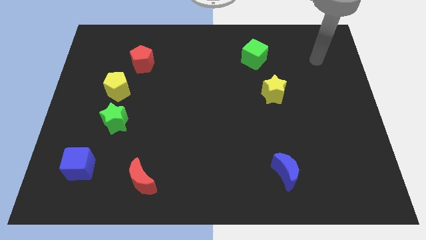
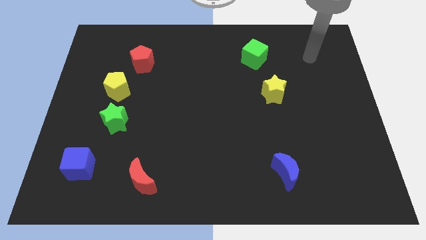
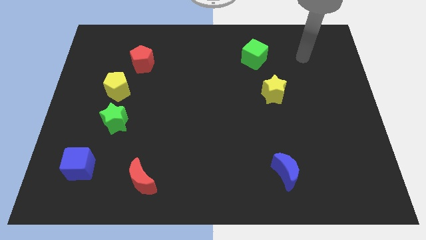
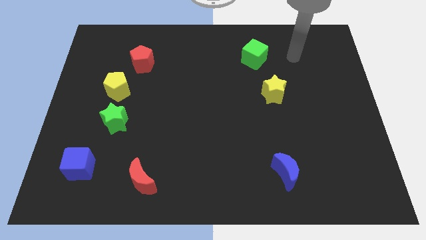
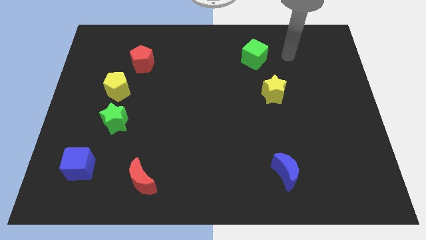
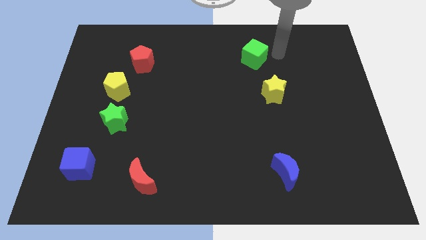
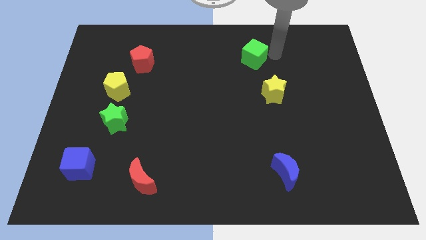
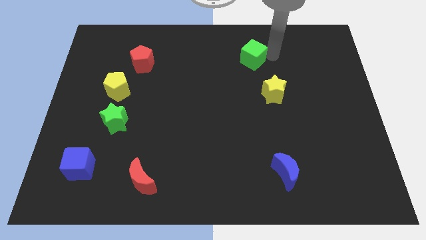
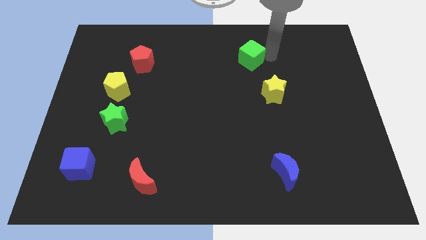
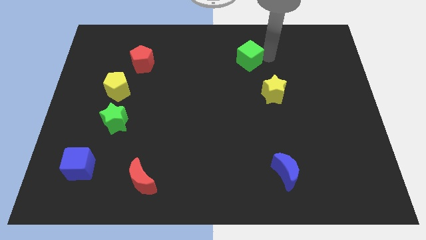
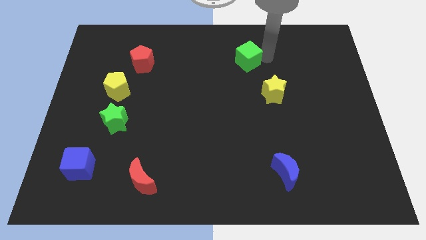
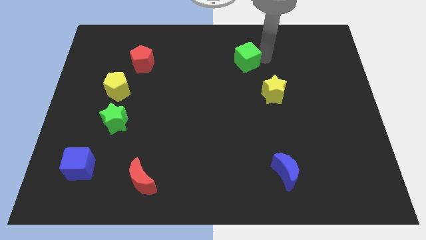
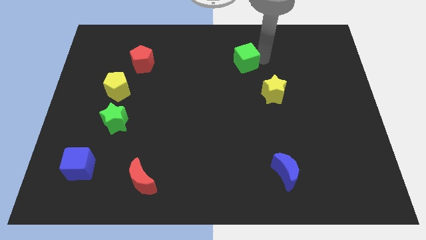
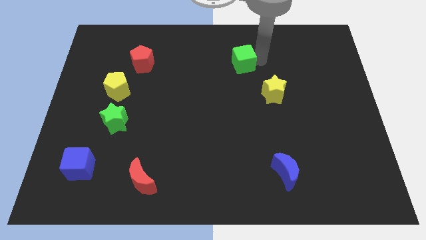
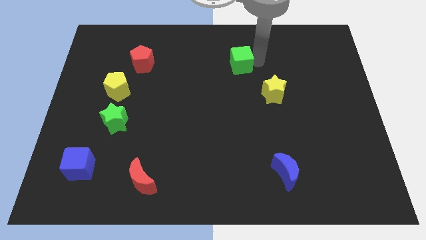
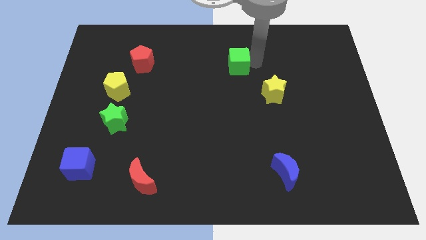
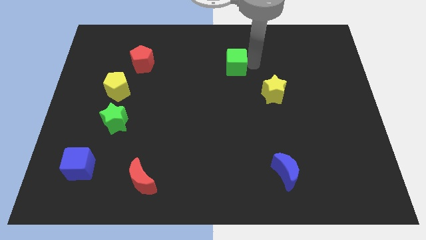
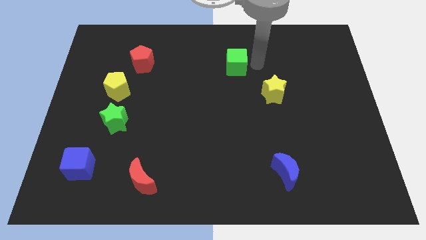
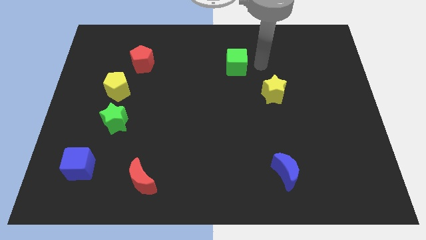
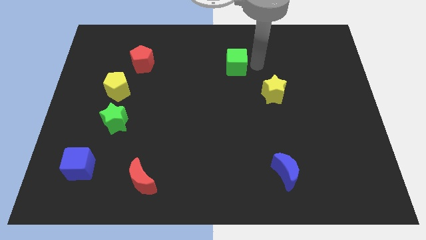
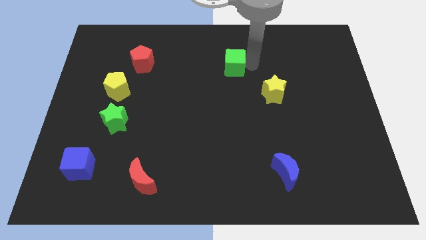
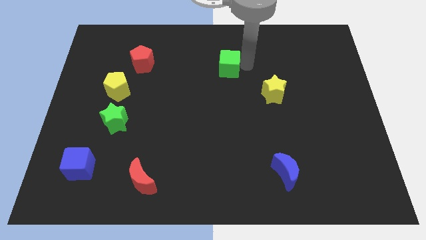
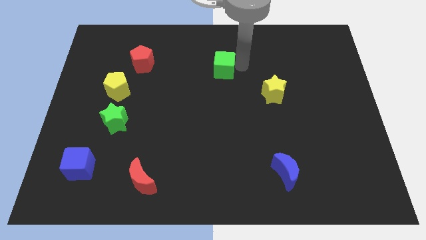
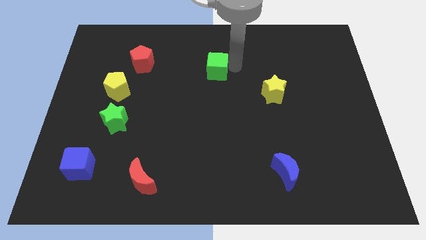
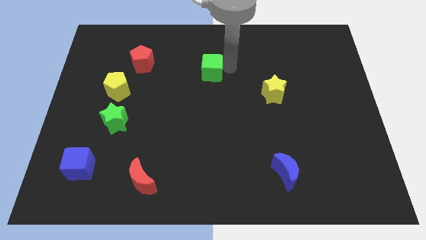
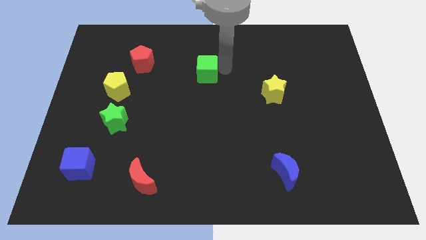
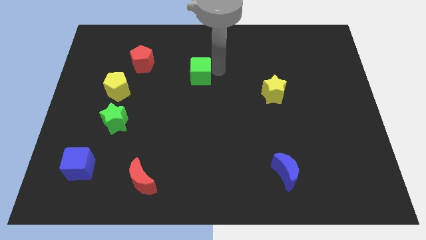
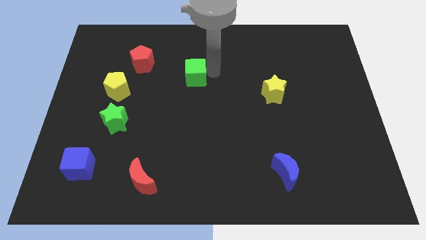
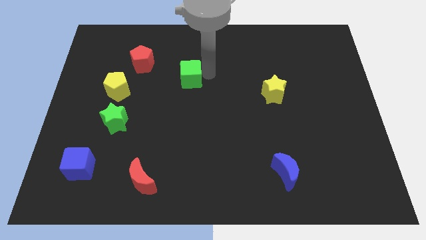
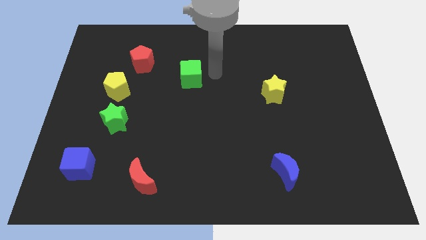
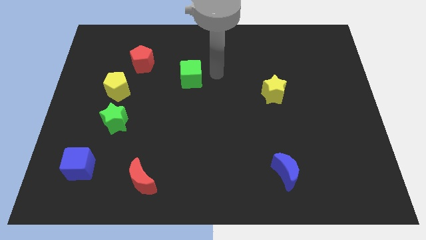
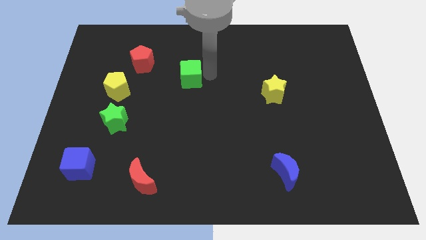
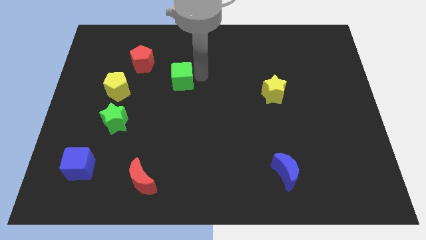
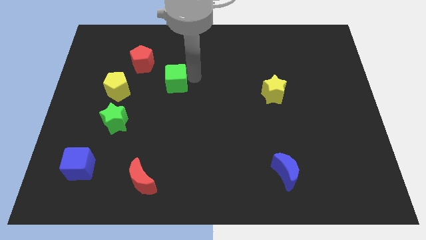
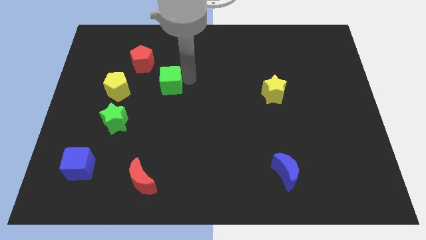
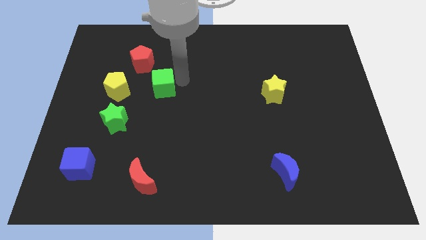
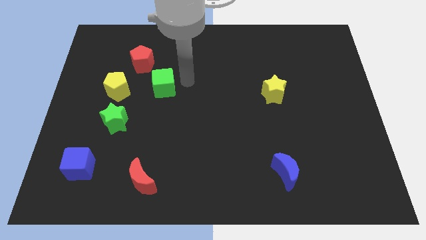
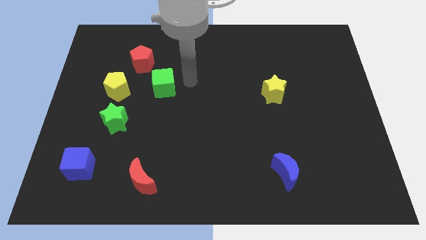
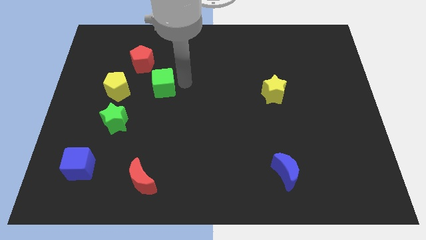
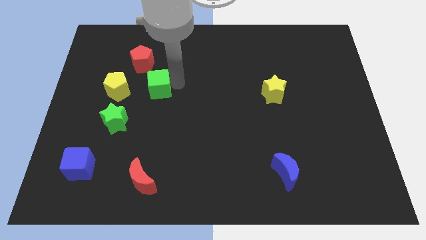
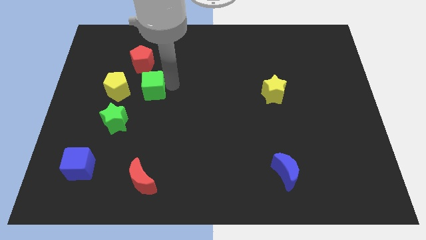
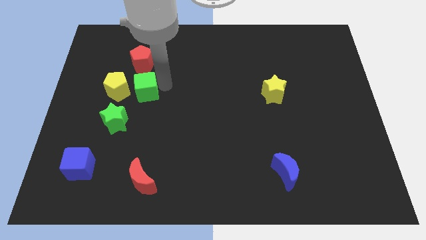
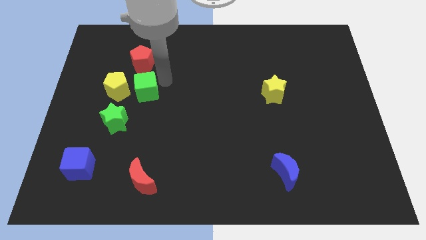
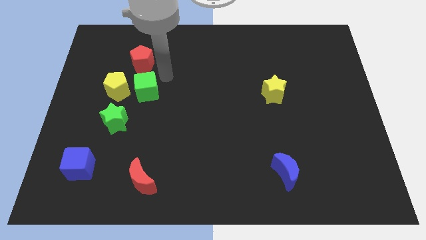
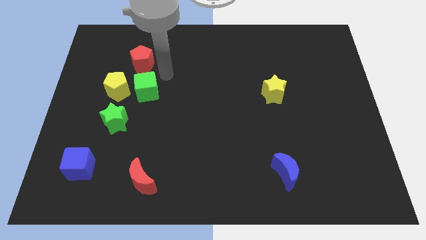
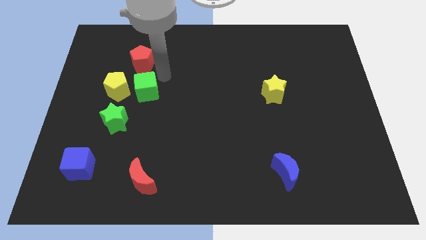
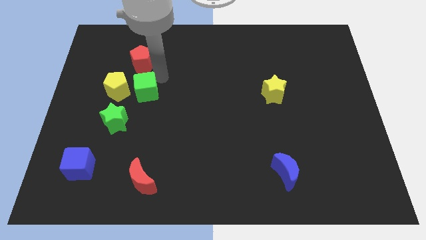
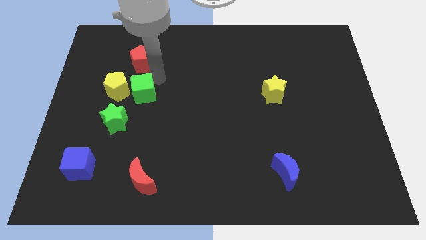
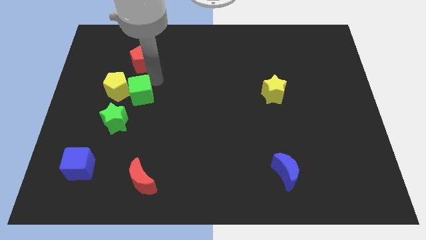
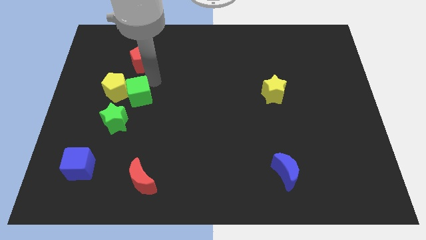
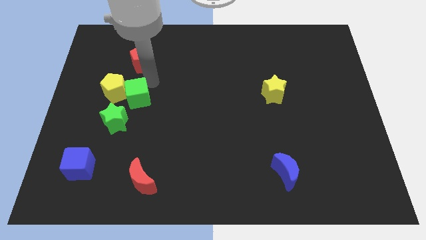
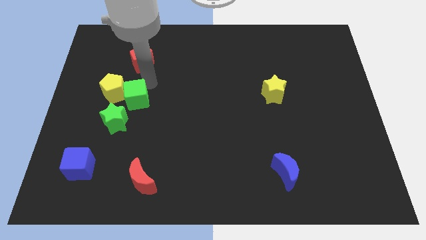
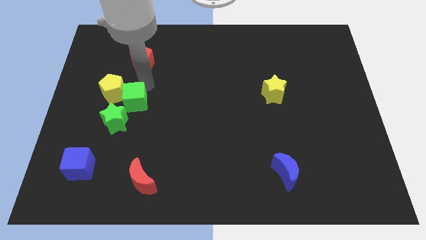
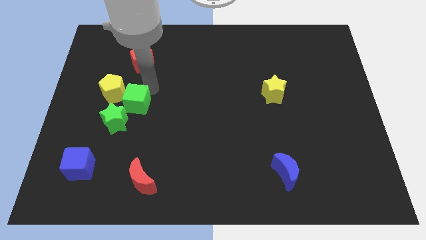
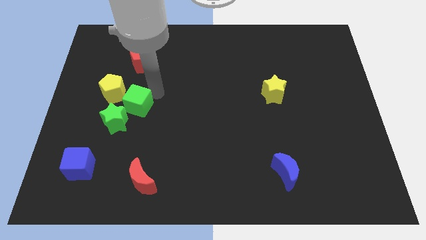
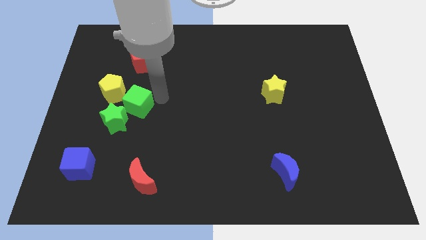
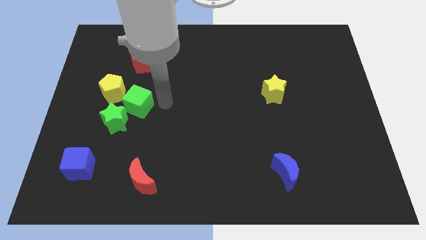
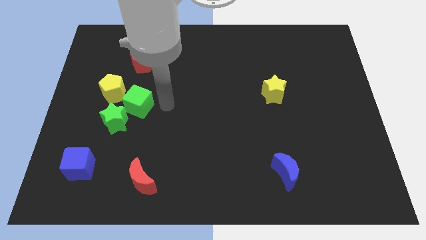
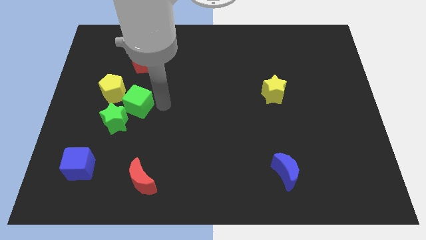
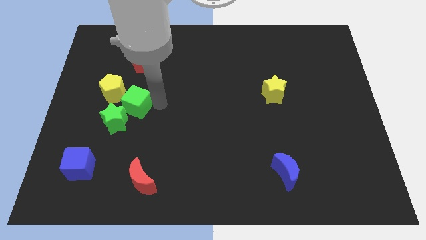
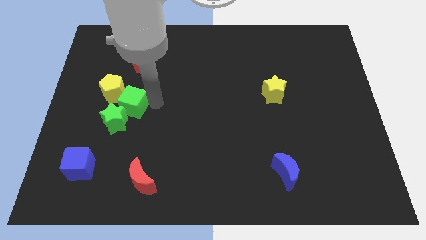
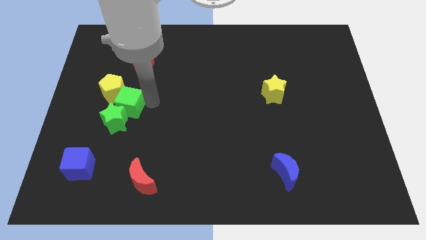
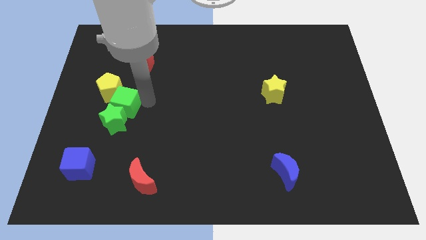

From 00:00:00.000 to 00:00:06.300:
push the green cube diagonally up and to the left of the green star
